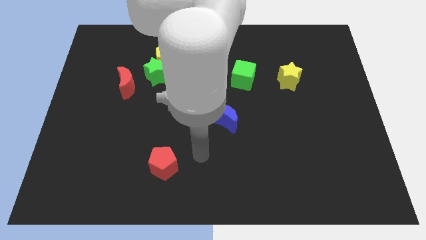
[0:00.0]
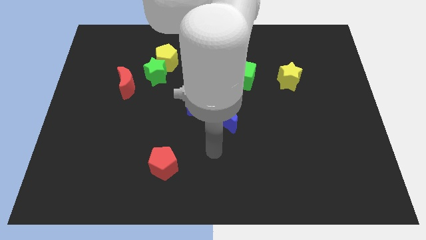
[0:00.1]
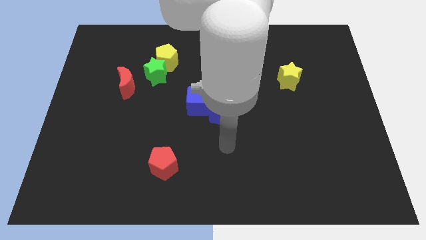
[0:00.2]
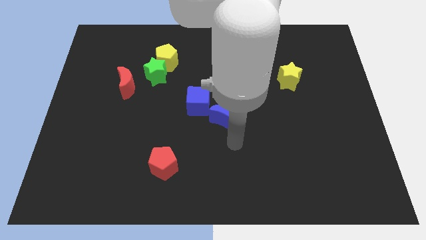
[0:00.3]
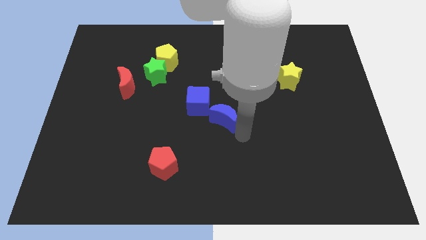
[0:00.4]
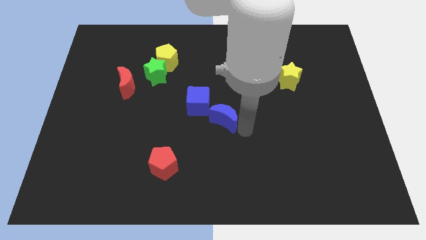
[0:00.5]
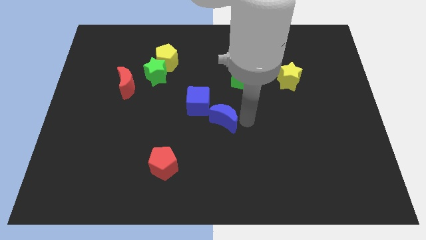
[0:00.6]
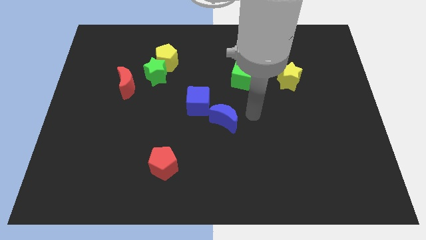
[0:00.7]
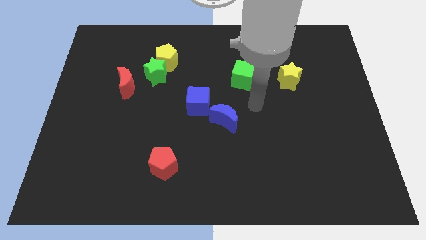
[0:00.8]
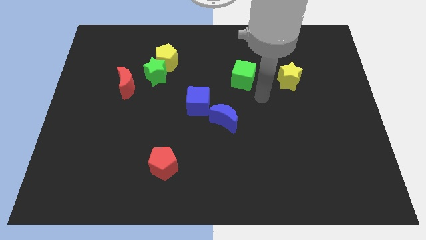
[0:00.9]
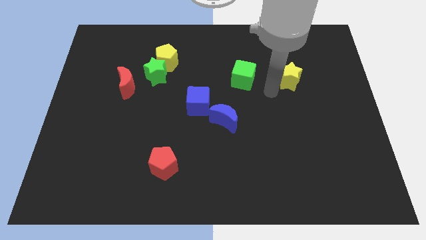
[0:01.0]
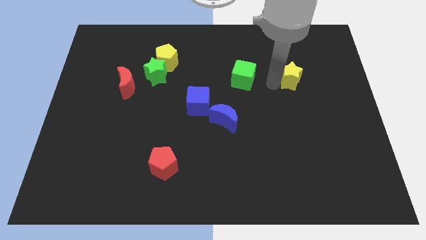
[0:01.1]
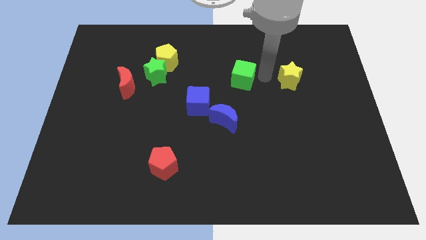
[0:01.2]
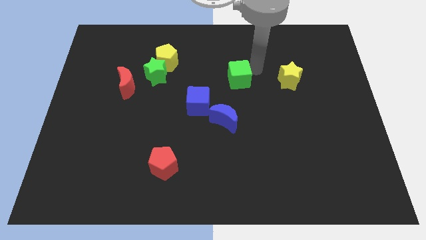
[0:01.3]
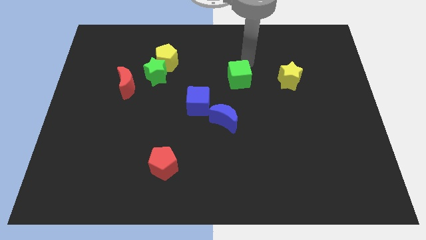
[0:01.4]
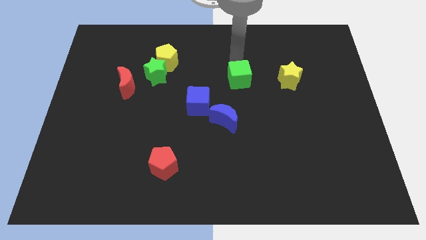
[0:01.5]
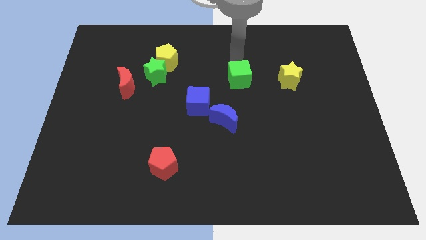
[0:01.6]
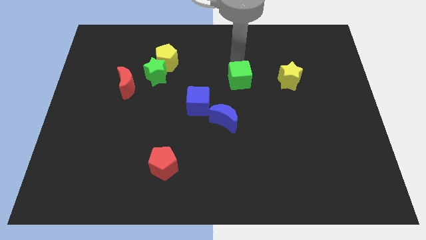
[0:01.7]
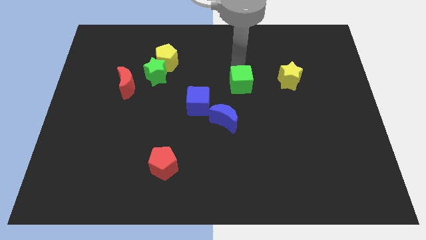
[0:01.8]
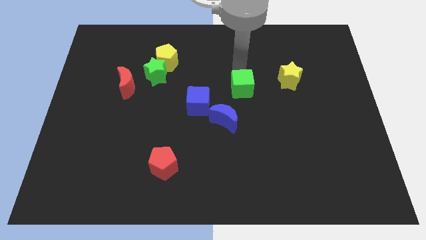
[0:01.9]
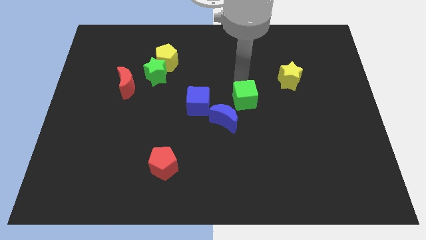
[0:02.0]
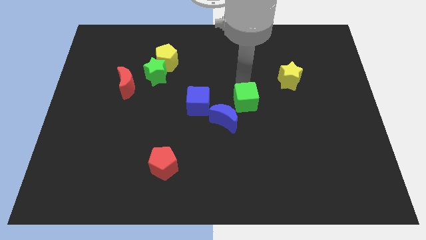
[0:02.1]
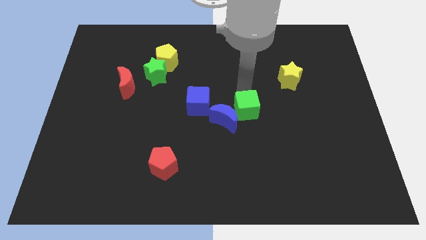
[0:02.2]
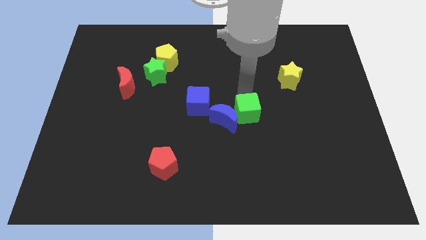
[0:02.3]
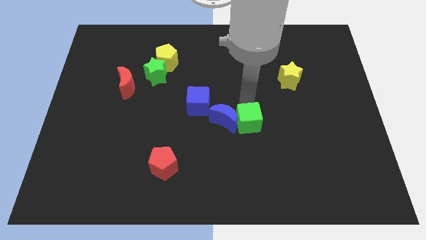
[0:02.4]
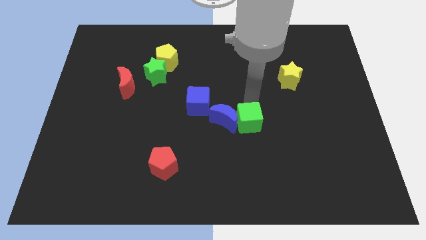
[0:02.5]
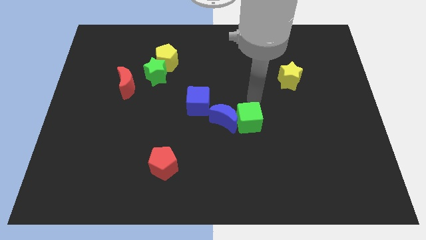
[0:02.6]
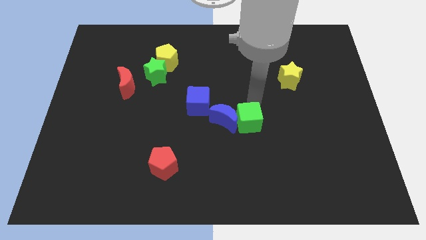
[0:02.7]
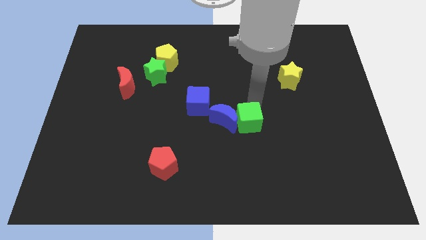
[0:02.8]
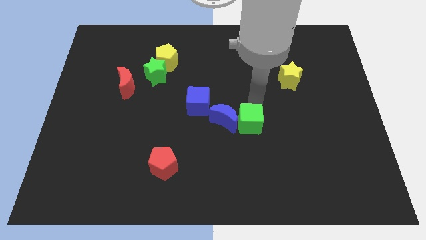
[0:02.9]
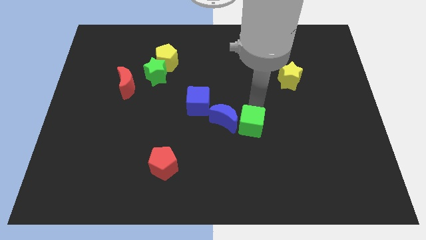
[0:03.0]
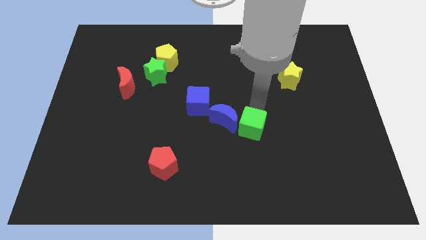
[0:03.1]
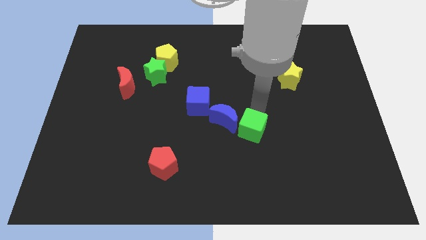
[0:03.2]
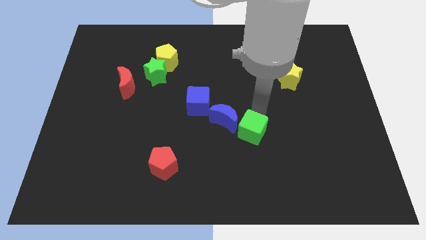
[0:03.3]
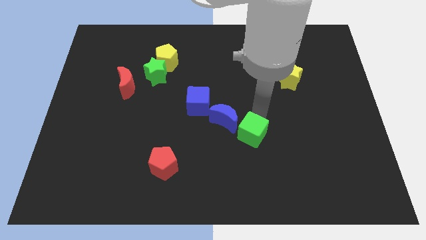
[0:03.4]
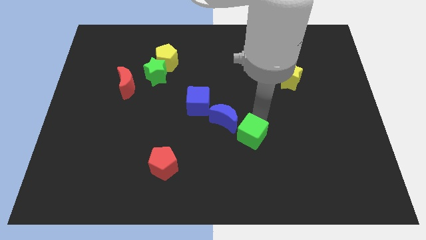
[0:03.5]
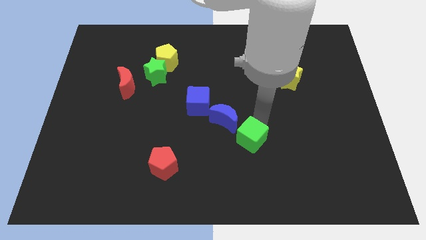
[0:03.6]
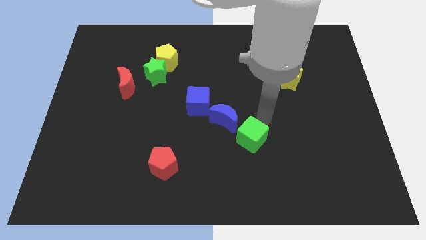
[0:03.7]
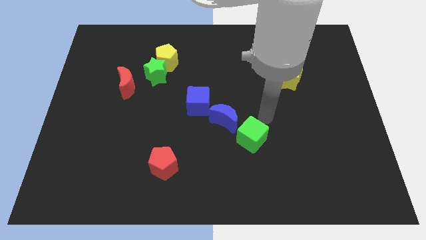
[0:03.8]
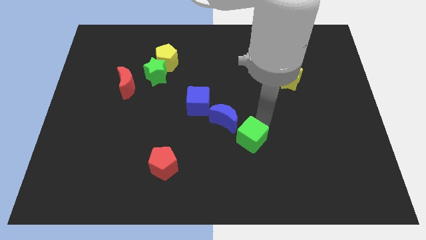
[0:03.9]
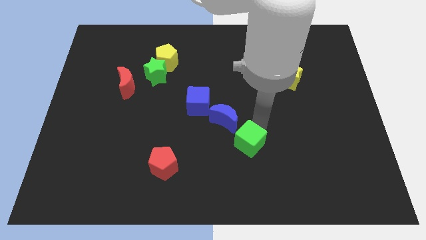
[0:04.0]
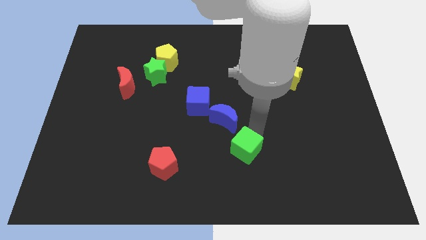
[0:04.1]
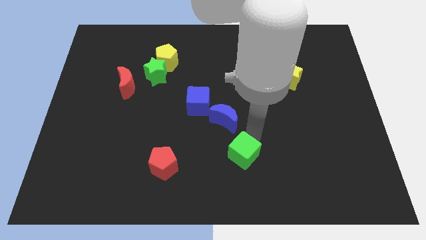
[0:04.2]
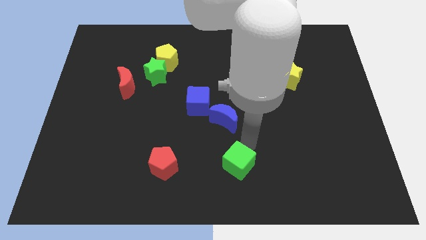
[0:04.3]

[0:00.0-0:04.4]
slide the green cube to the bottom side

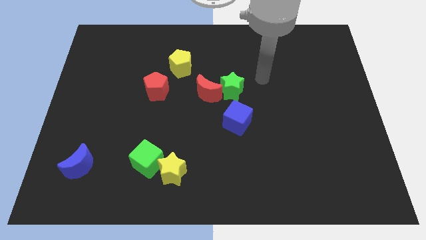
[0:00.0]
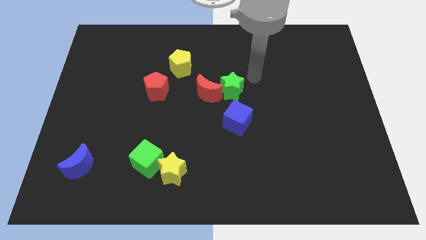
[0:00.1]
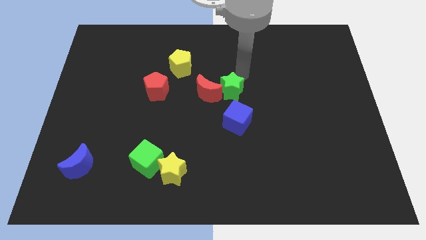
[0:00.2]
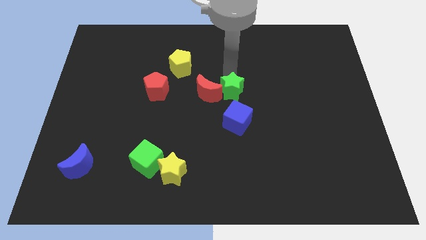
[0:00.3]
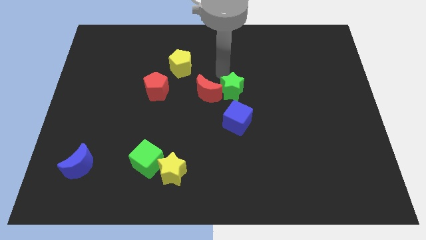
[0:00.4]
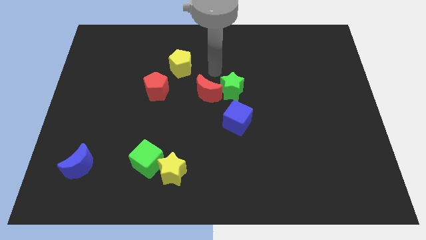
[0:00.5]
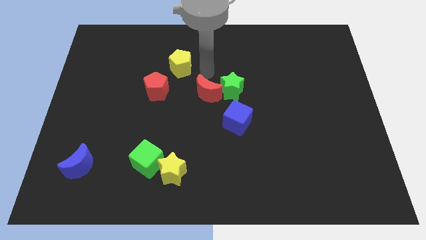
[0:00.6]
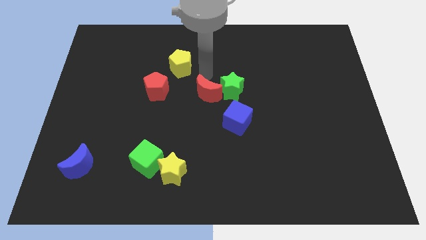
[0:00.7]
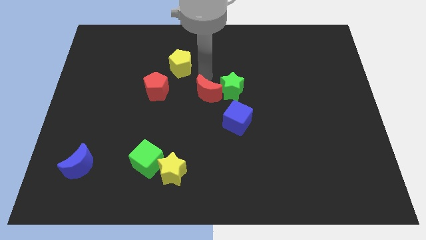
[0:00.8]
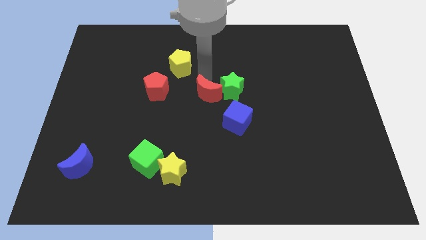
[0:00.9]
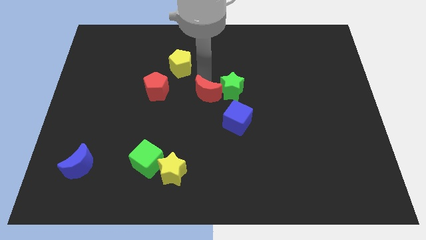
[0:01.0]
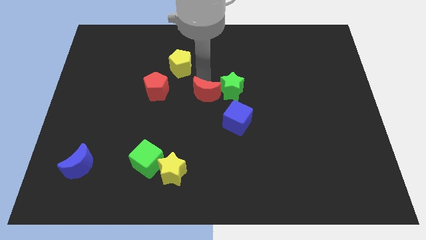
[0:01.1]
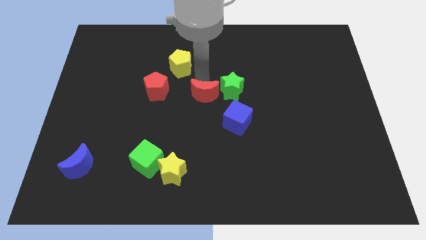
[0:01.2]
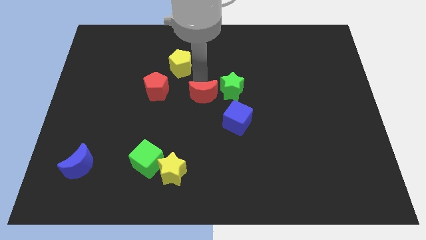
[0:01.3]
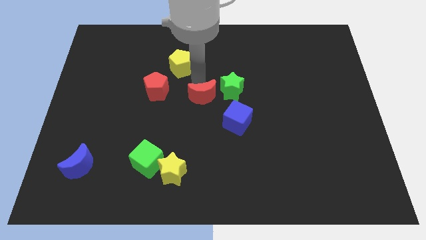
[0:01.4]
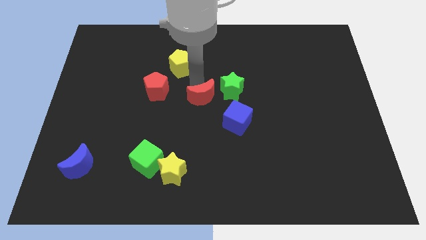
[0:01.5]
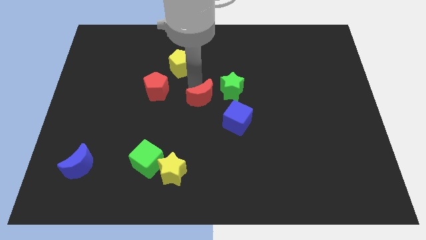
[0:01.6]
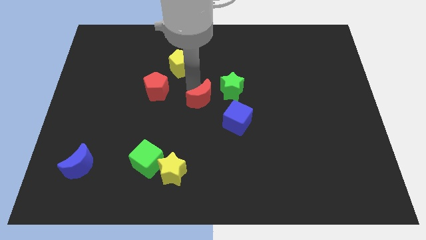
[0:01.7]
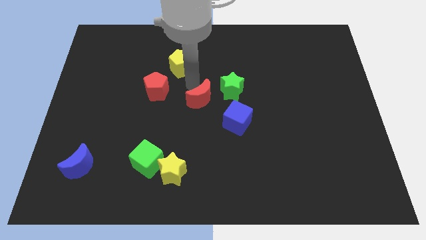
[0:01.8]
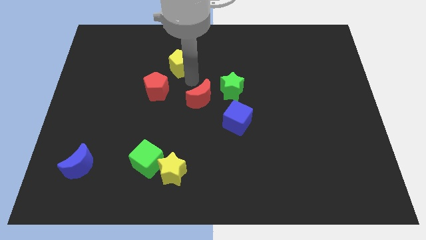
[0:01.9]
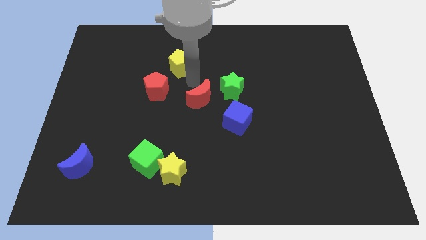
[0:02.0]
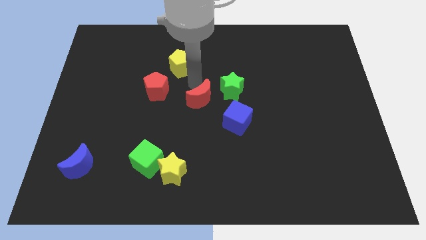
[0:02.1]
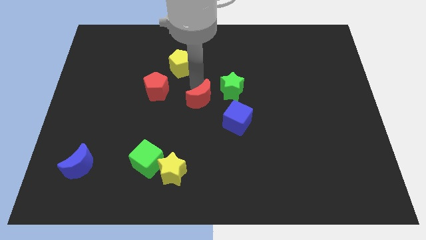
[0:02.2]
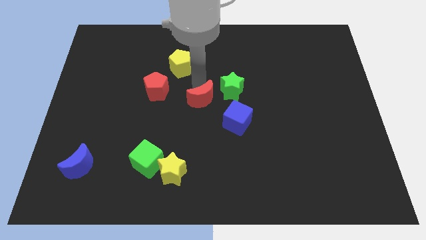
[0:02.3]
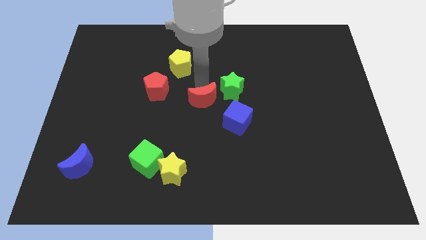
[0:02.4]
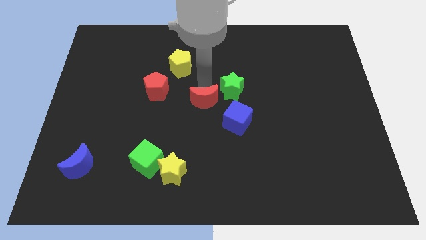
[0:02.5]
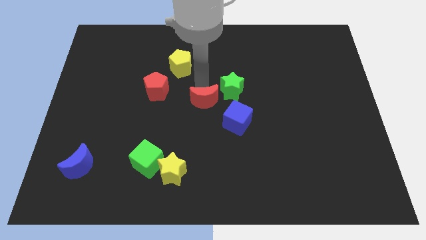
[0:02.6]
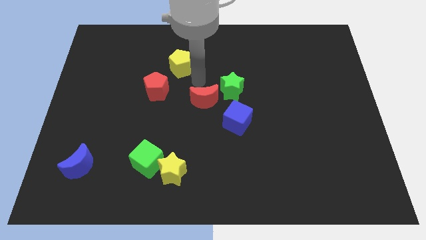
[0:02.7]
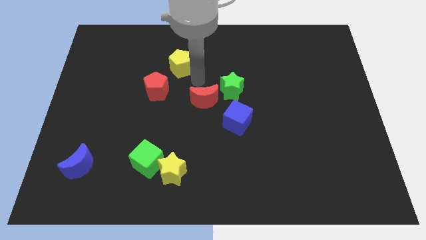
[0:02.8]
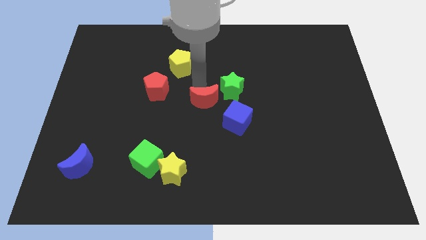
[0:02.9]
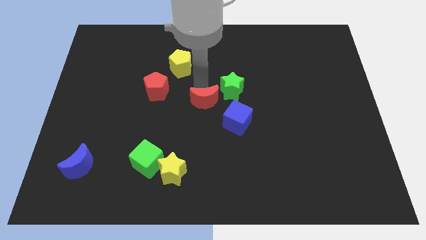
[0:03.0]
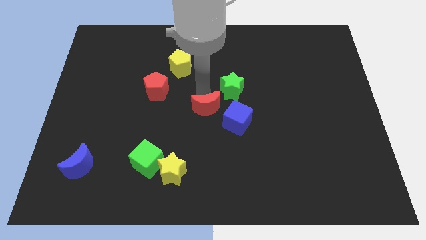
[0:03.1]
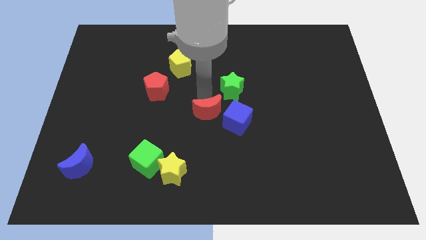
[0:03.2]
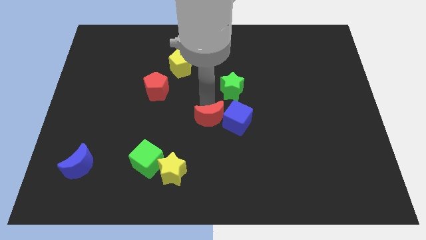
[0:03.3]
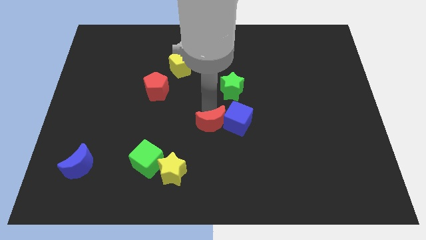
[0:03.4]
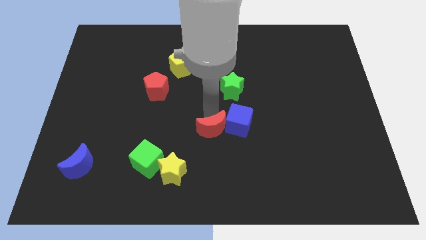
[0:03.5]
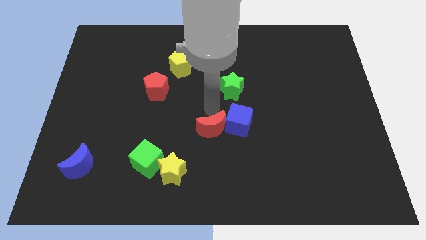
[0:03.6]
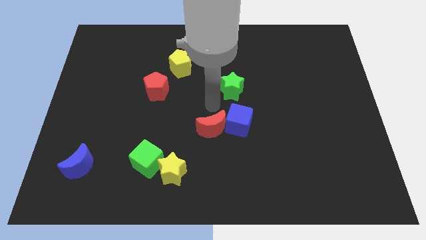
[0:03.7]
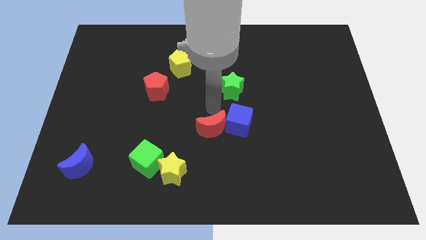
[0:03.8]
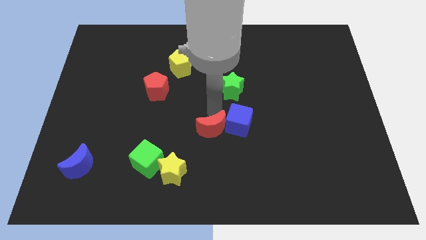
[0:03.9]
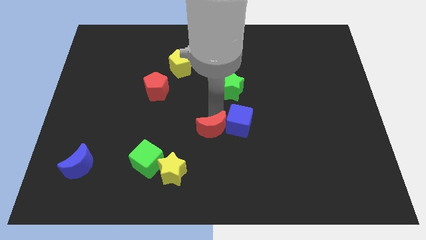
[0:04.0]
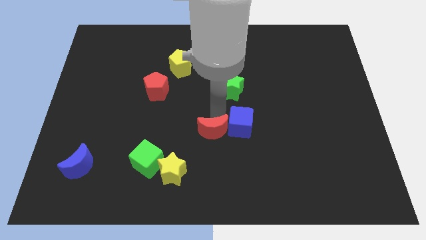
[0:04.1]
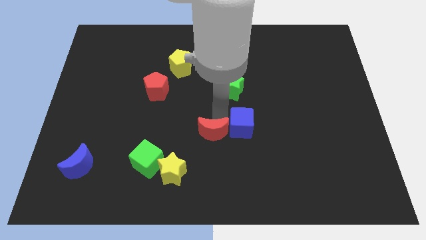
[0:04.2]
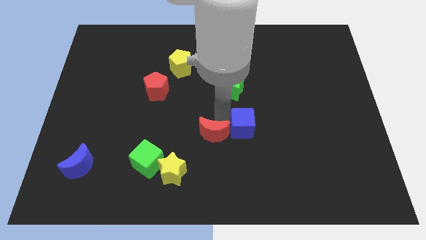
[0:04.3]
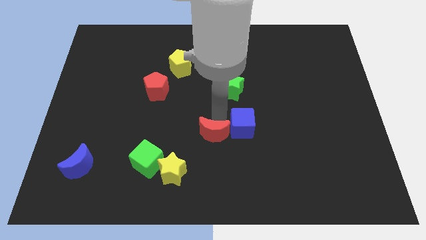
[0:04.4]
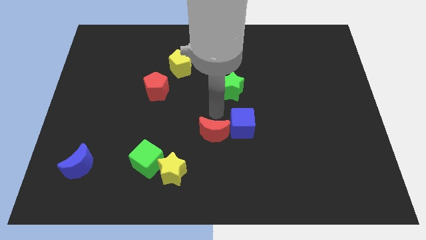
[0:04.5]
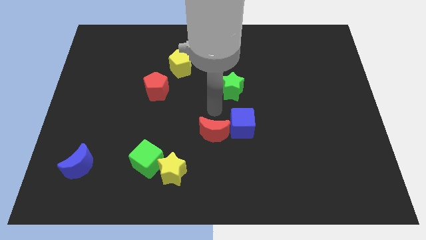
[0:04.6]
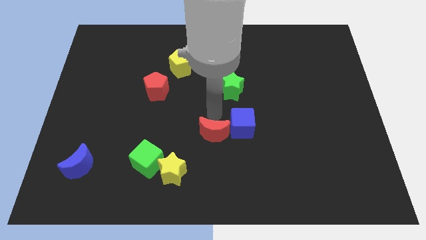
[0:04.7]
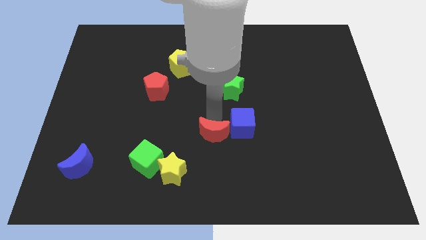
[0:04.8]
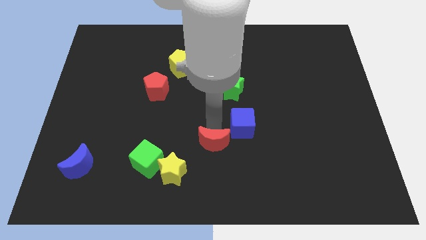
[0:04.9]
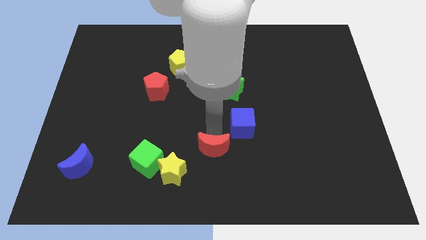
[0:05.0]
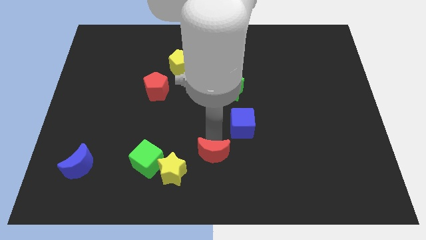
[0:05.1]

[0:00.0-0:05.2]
put the red moon to the bottom side
